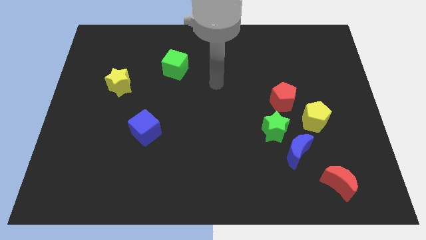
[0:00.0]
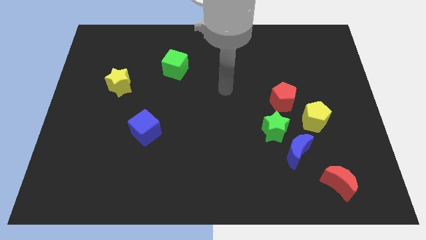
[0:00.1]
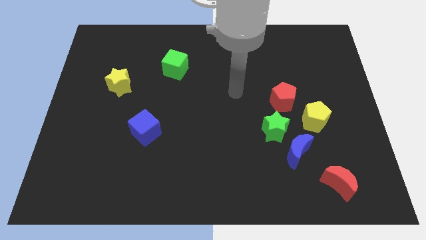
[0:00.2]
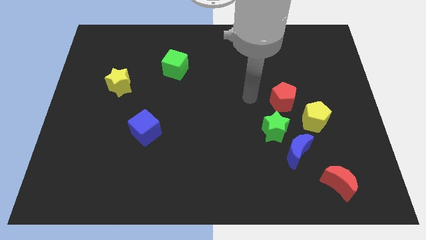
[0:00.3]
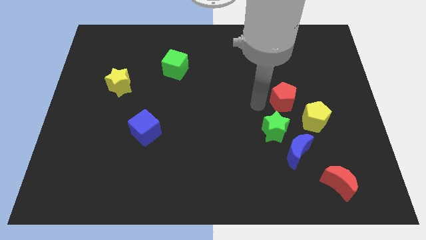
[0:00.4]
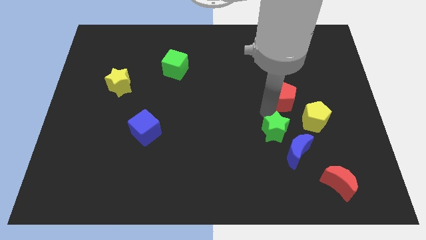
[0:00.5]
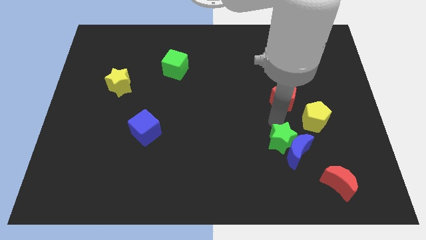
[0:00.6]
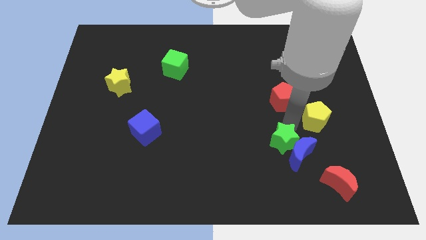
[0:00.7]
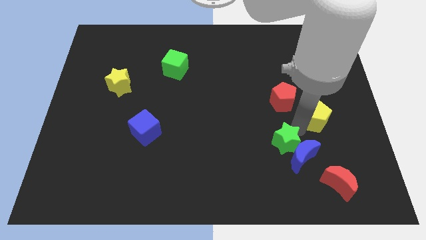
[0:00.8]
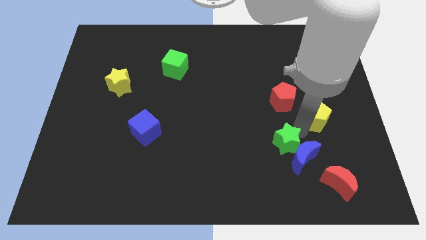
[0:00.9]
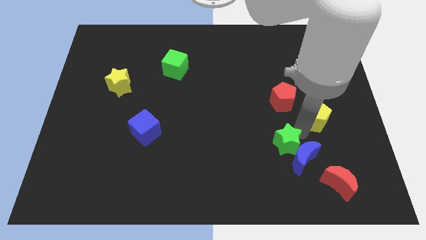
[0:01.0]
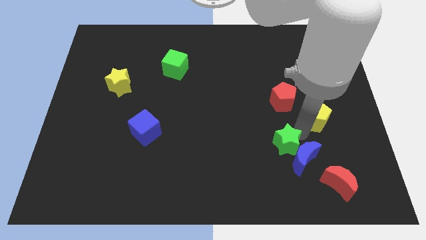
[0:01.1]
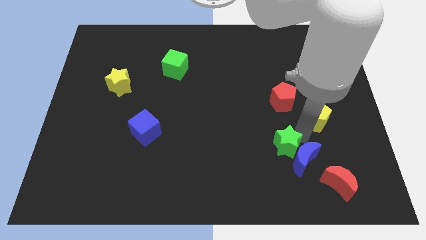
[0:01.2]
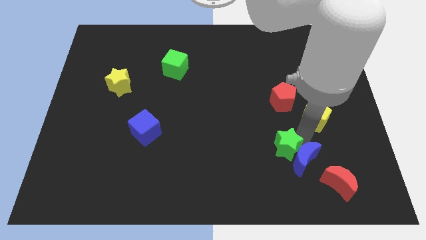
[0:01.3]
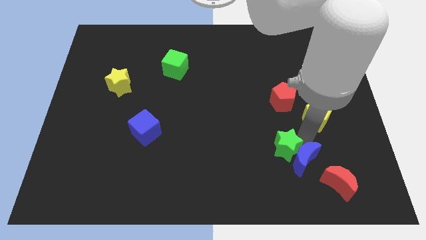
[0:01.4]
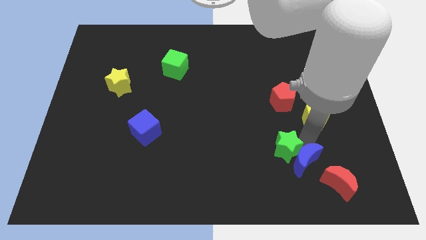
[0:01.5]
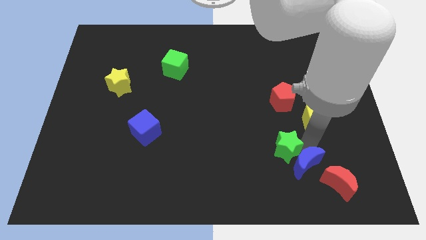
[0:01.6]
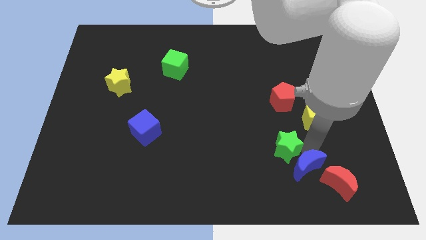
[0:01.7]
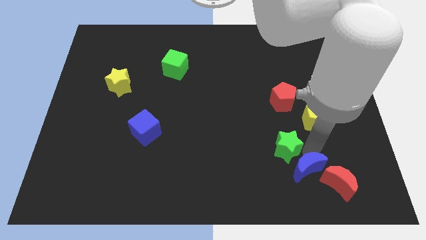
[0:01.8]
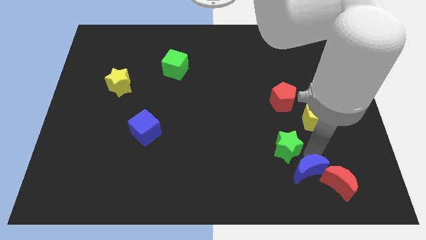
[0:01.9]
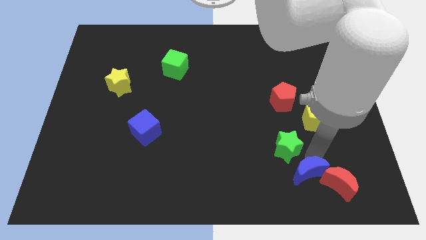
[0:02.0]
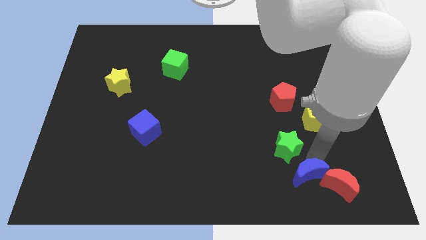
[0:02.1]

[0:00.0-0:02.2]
pull the blue moon apart from the green star and yellow pentagon

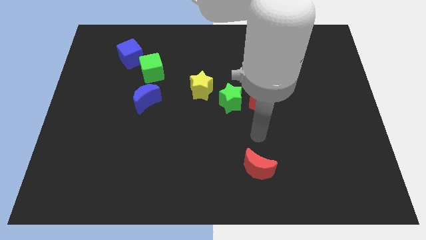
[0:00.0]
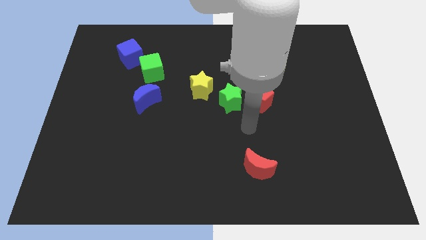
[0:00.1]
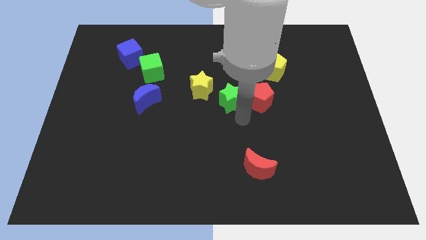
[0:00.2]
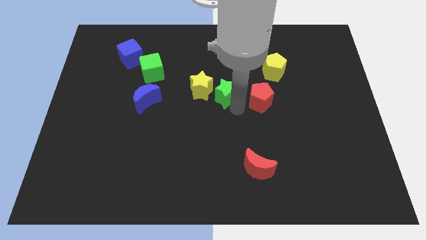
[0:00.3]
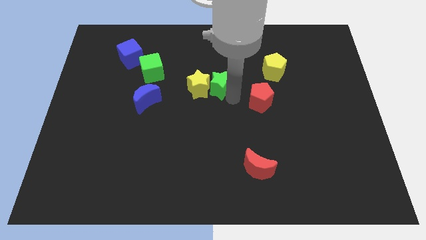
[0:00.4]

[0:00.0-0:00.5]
pull the red pentagon apart from the green star

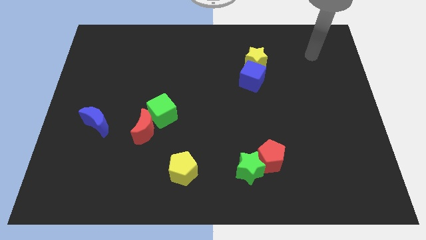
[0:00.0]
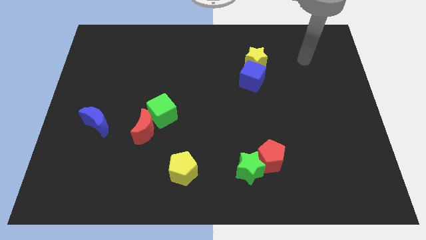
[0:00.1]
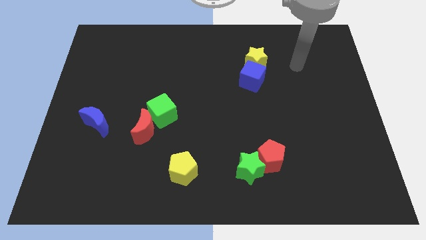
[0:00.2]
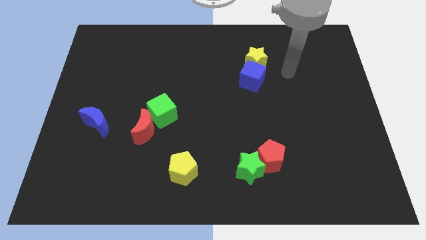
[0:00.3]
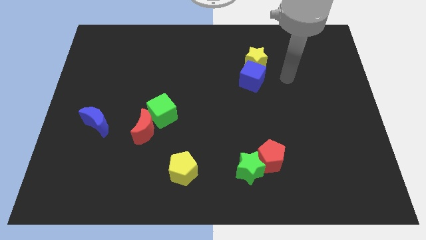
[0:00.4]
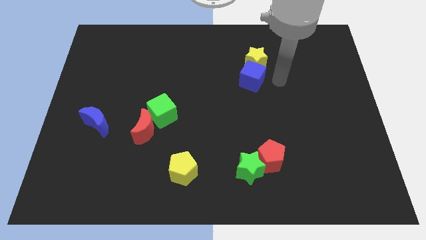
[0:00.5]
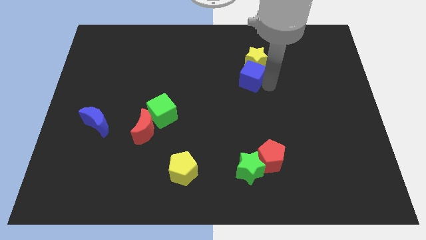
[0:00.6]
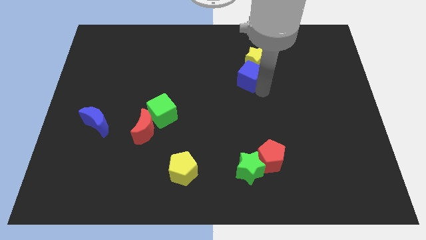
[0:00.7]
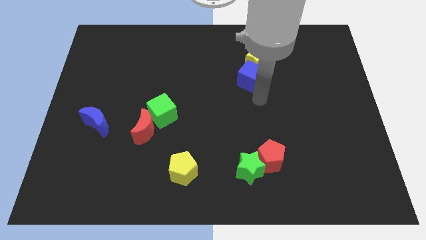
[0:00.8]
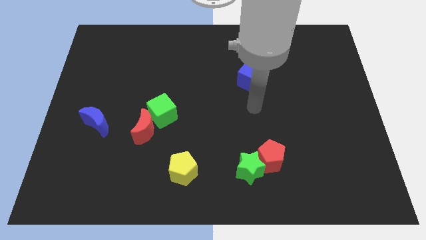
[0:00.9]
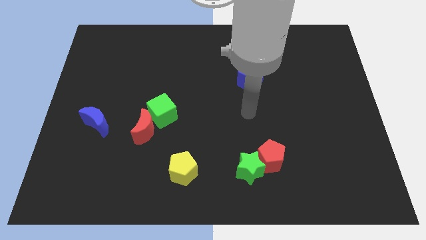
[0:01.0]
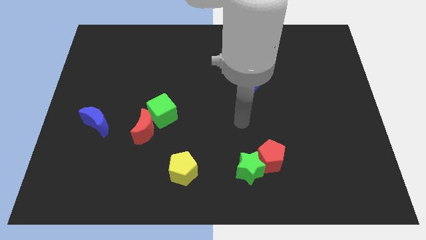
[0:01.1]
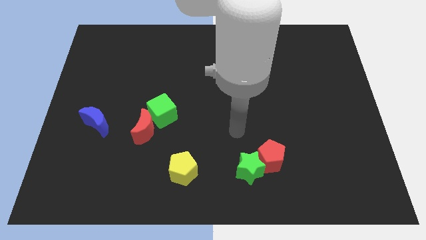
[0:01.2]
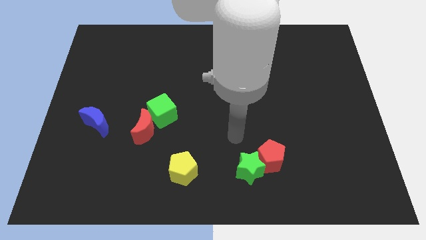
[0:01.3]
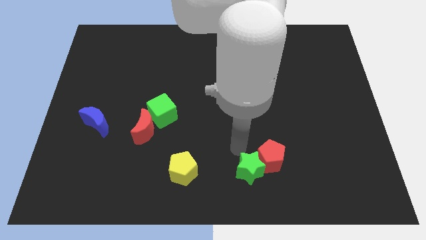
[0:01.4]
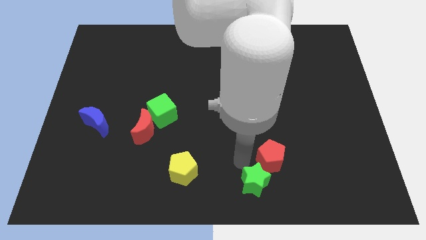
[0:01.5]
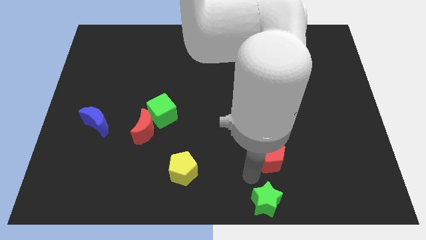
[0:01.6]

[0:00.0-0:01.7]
move the red pentagon away from the green star

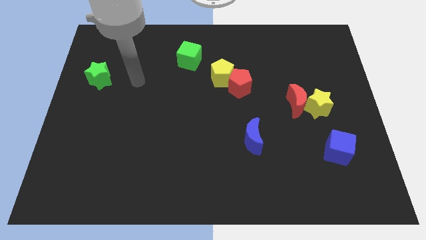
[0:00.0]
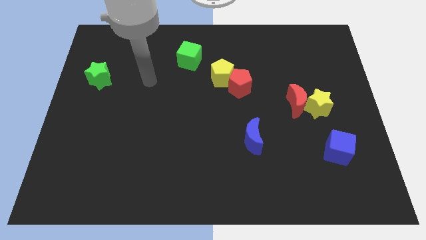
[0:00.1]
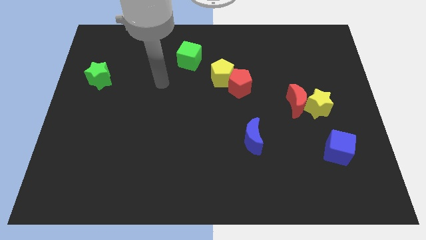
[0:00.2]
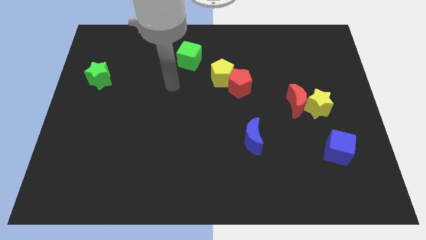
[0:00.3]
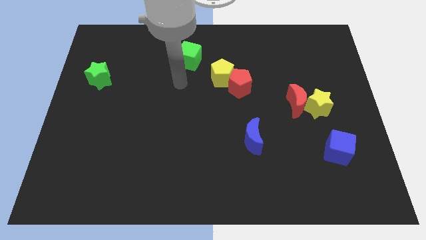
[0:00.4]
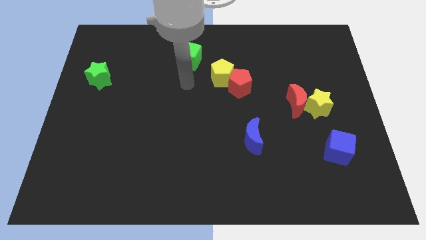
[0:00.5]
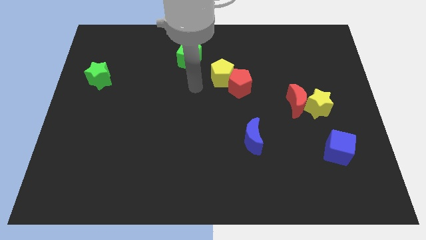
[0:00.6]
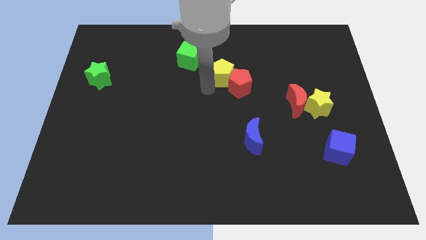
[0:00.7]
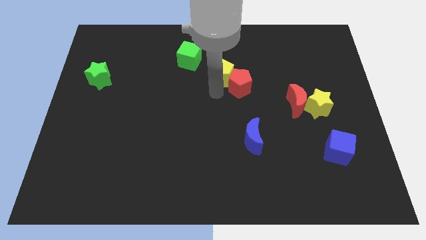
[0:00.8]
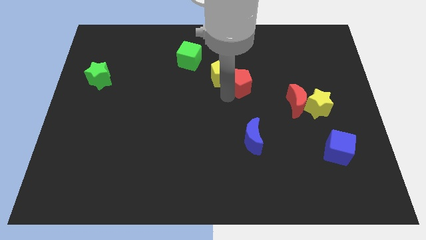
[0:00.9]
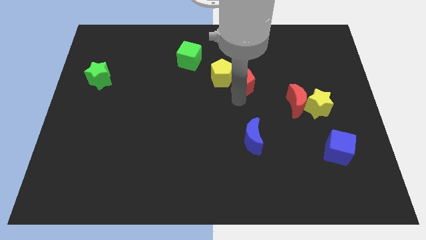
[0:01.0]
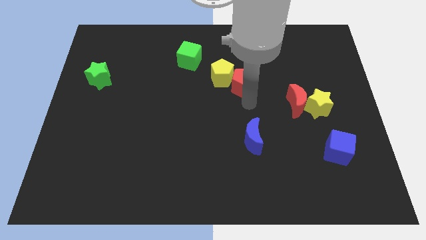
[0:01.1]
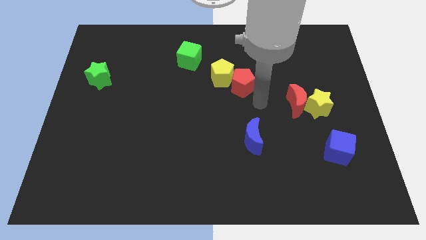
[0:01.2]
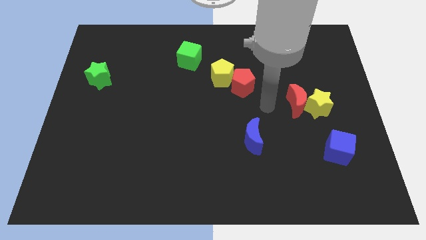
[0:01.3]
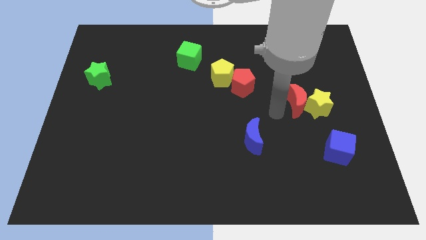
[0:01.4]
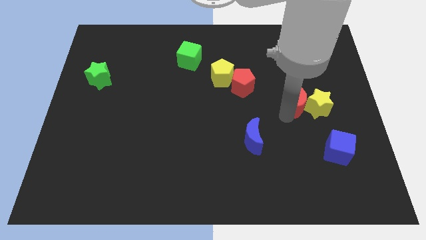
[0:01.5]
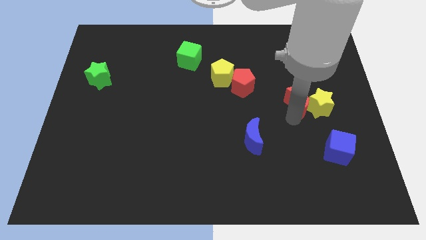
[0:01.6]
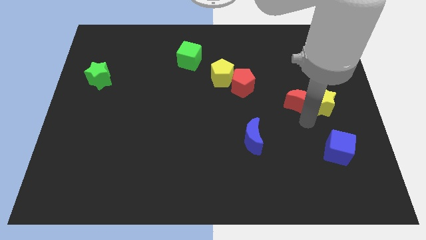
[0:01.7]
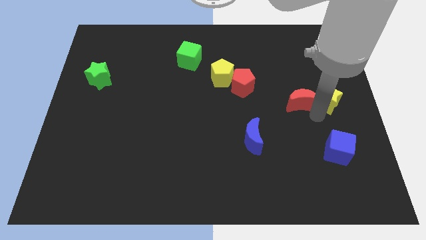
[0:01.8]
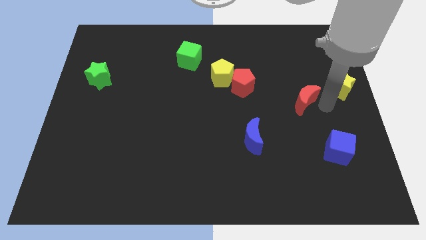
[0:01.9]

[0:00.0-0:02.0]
move the red moon away from the yellow star

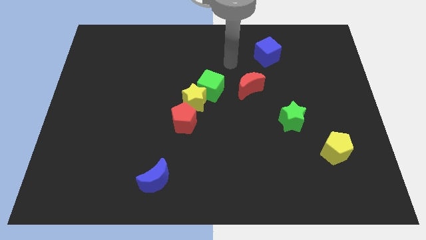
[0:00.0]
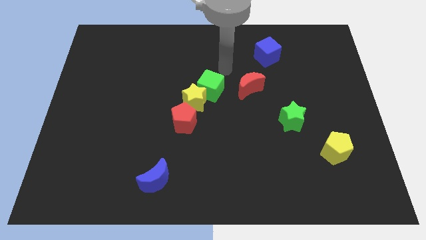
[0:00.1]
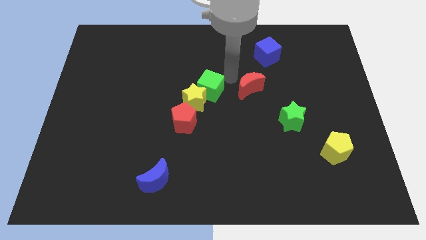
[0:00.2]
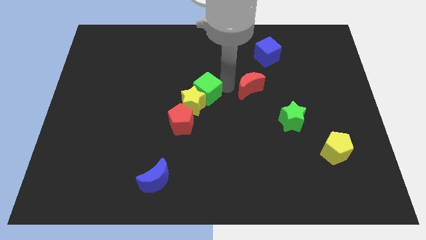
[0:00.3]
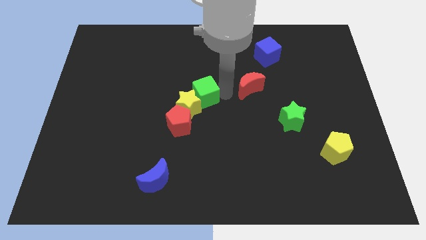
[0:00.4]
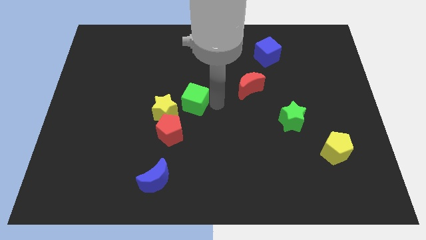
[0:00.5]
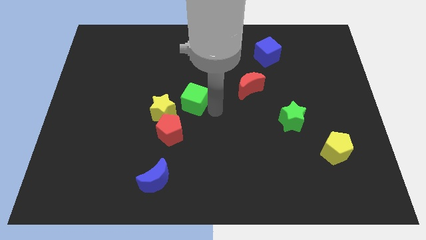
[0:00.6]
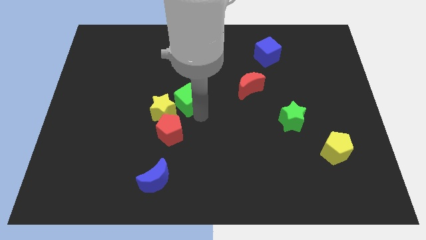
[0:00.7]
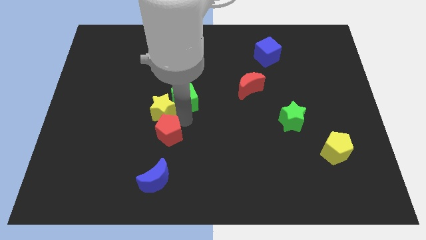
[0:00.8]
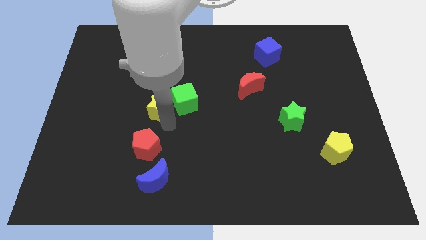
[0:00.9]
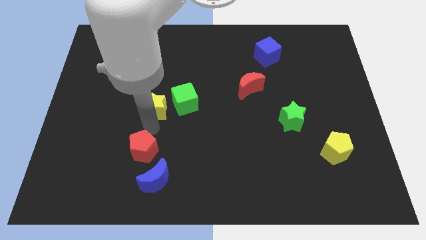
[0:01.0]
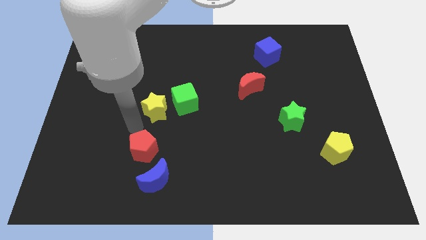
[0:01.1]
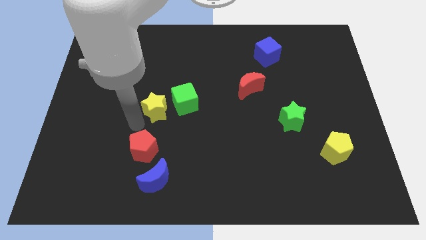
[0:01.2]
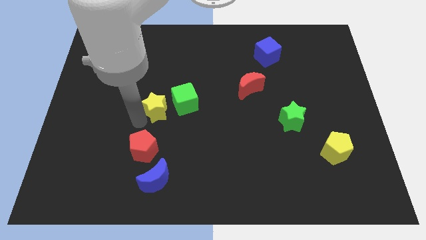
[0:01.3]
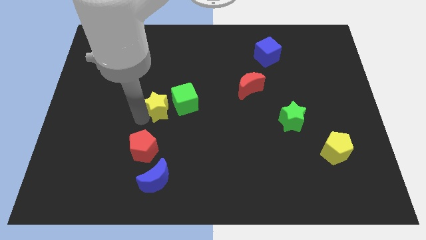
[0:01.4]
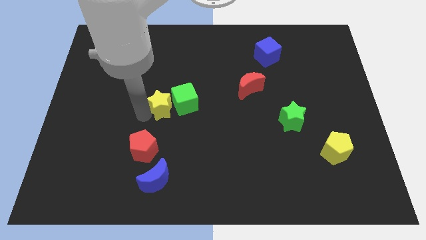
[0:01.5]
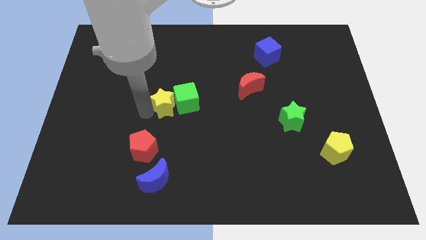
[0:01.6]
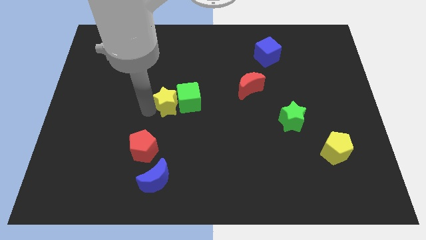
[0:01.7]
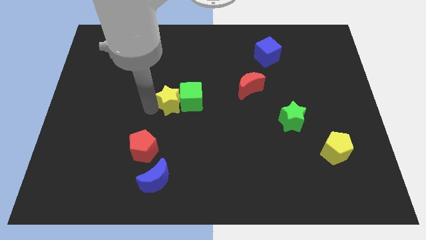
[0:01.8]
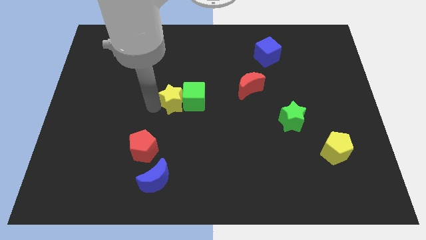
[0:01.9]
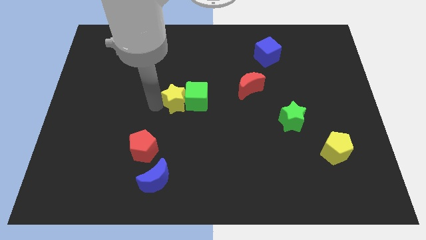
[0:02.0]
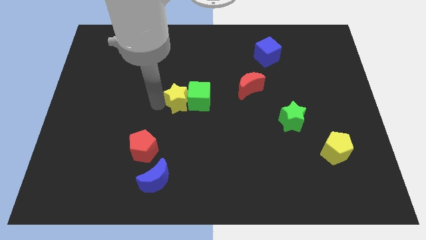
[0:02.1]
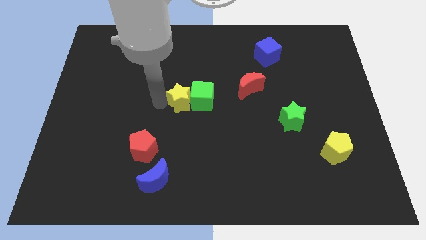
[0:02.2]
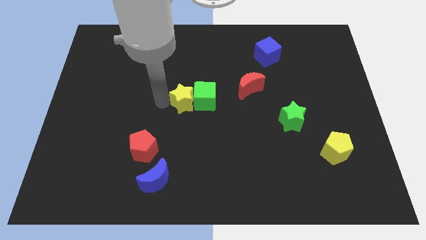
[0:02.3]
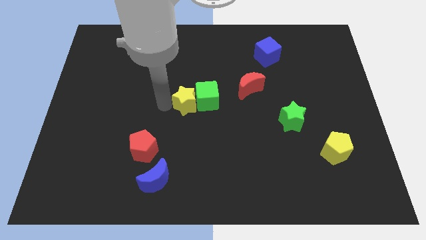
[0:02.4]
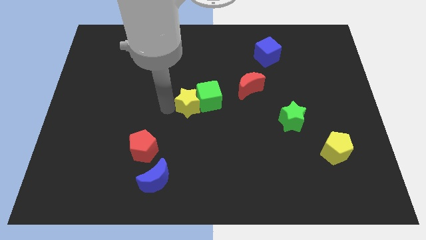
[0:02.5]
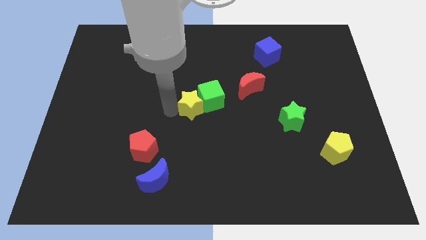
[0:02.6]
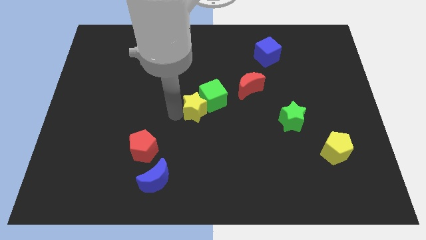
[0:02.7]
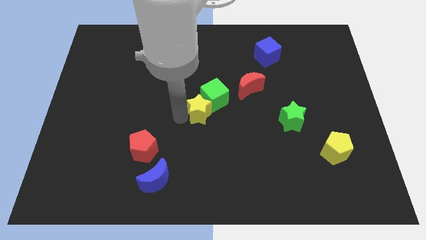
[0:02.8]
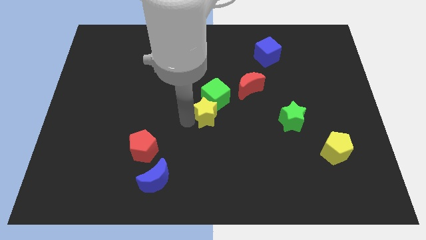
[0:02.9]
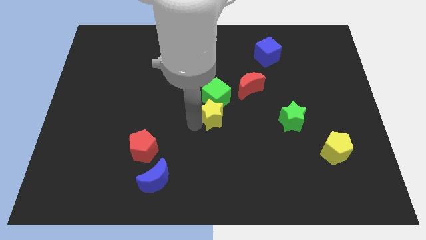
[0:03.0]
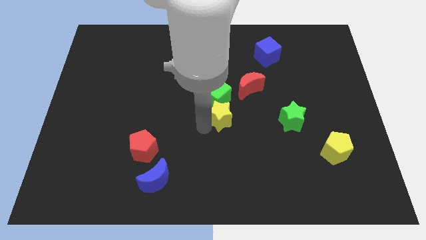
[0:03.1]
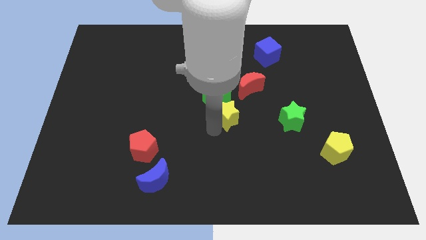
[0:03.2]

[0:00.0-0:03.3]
pull the yellow star apart from the green cube and red pentagon
